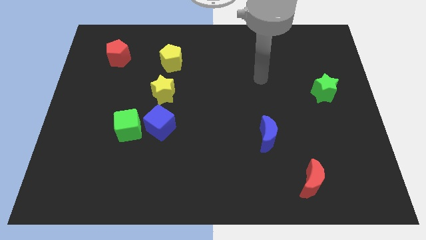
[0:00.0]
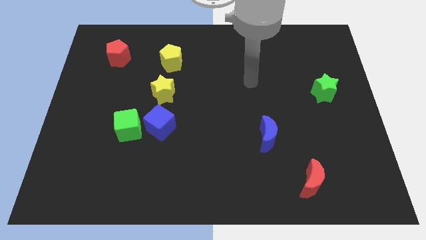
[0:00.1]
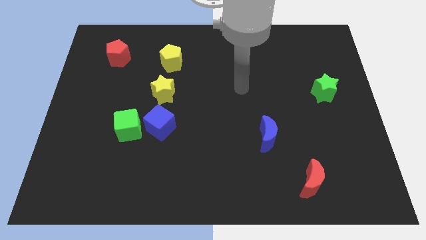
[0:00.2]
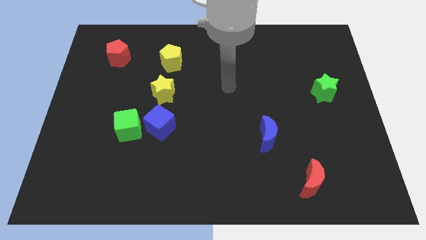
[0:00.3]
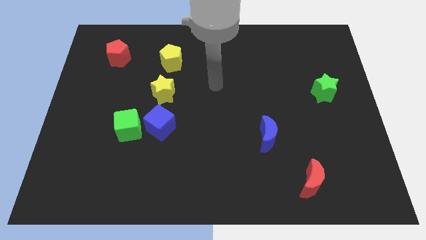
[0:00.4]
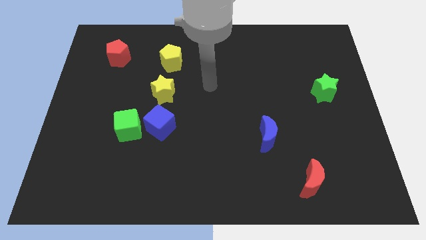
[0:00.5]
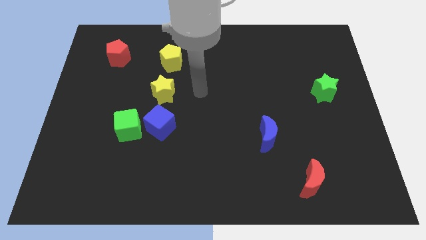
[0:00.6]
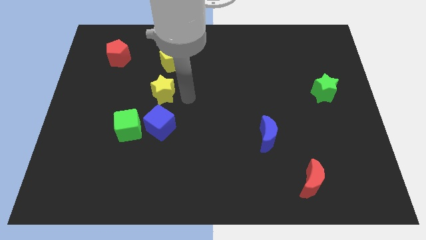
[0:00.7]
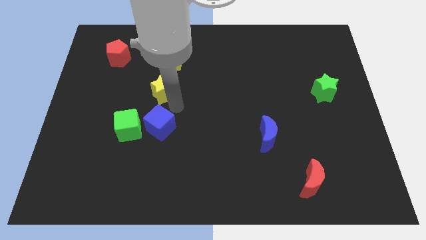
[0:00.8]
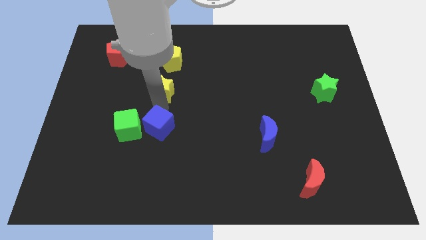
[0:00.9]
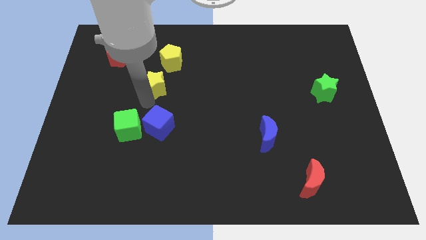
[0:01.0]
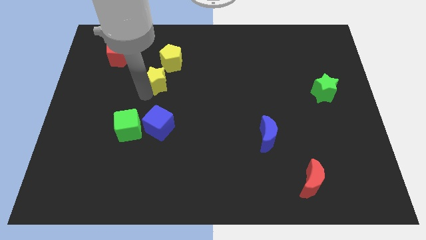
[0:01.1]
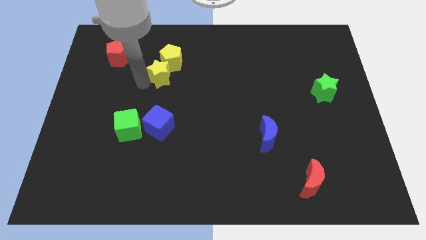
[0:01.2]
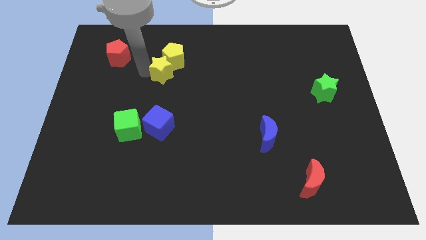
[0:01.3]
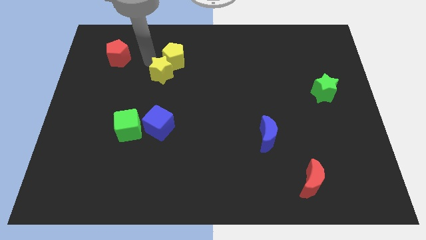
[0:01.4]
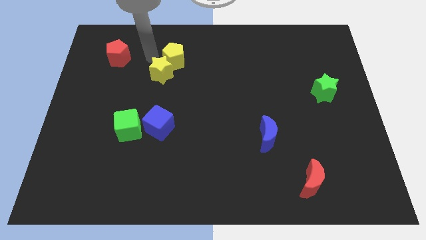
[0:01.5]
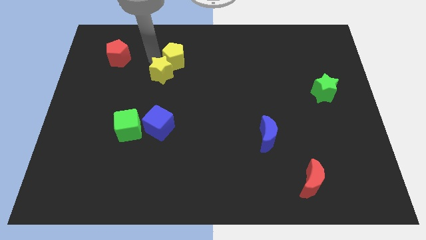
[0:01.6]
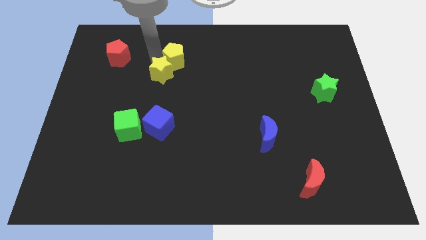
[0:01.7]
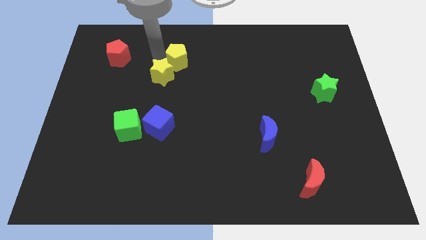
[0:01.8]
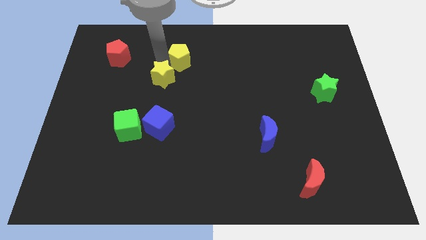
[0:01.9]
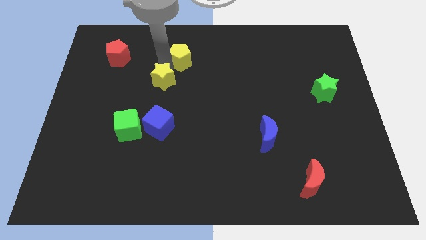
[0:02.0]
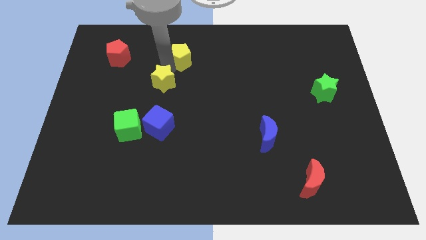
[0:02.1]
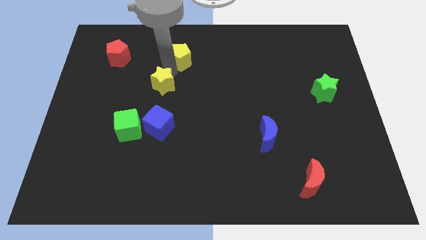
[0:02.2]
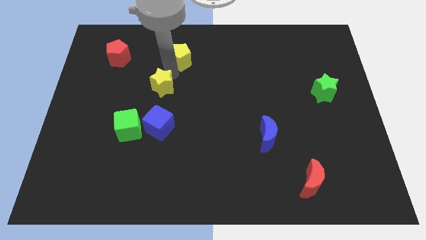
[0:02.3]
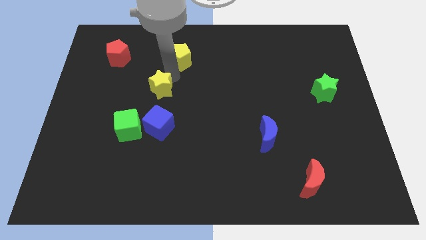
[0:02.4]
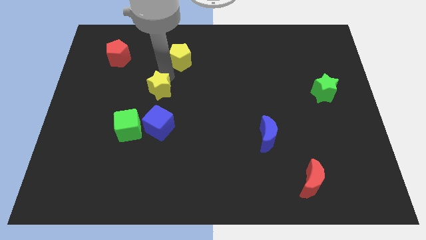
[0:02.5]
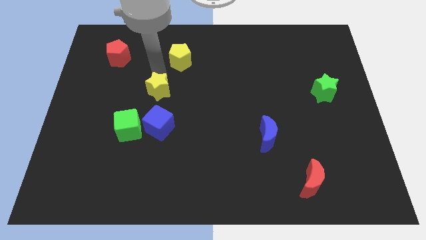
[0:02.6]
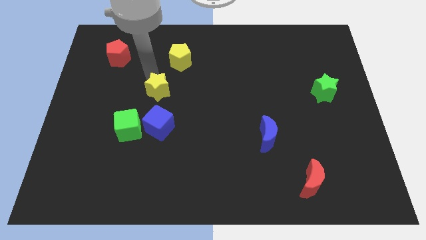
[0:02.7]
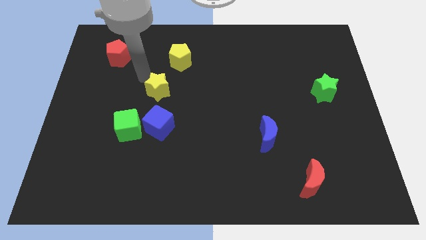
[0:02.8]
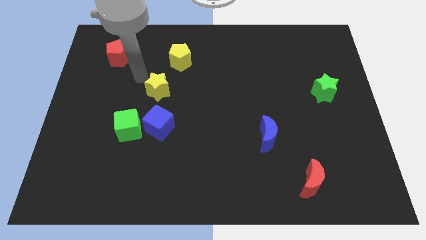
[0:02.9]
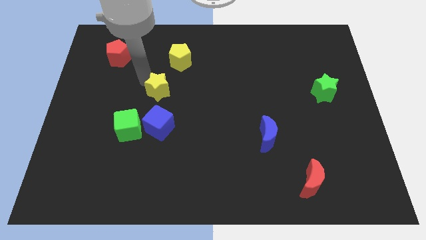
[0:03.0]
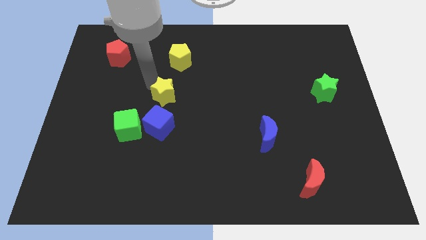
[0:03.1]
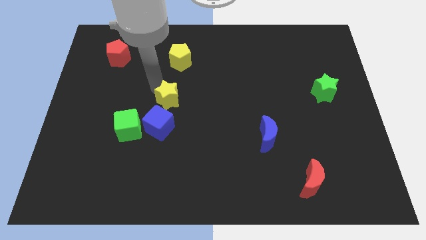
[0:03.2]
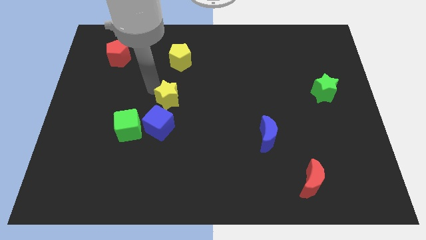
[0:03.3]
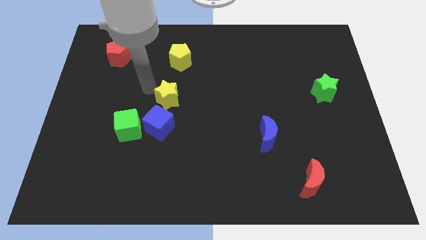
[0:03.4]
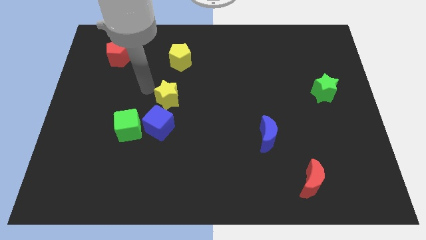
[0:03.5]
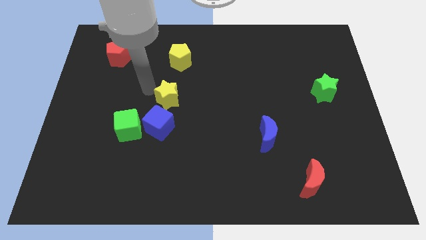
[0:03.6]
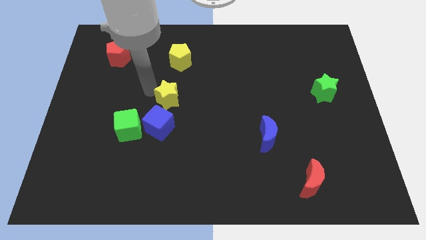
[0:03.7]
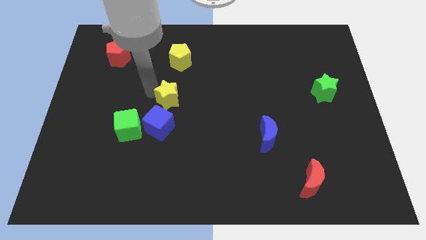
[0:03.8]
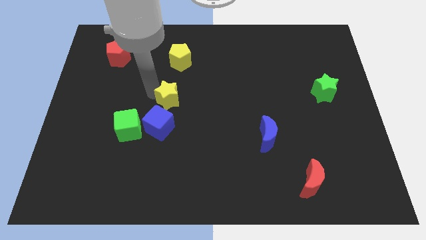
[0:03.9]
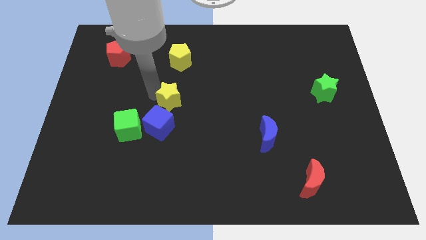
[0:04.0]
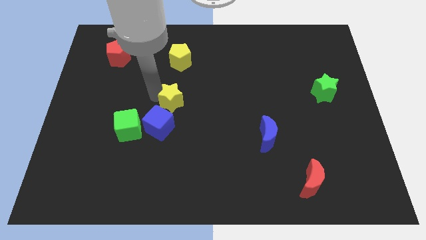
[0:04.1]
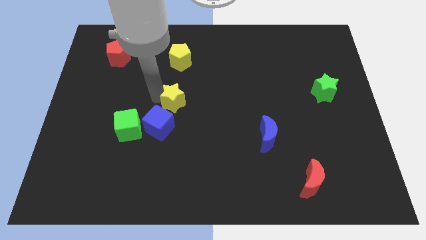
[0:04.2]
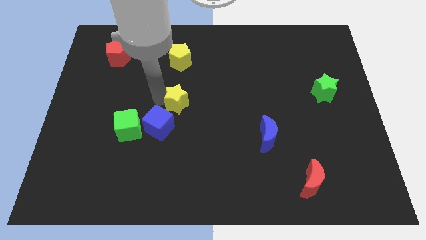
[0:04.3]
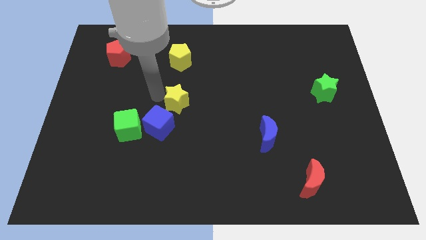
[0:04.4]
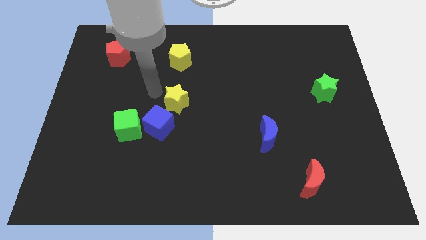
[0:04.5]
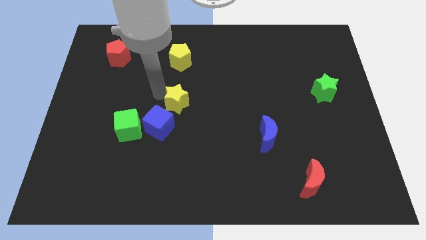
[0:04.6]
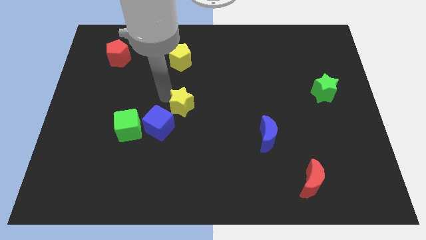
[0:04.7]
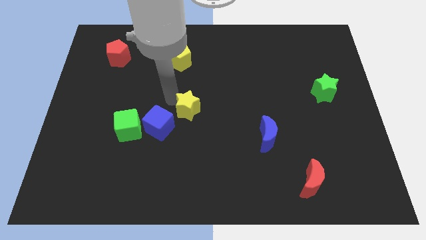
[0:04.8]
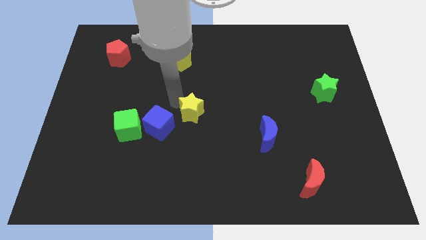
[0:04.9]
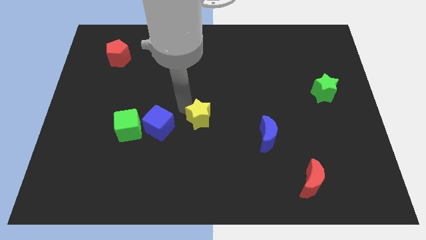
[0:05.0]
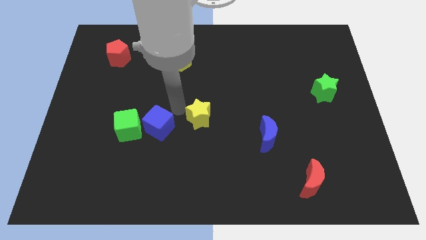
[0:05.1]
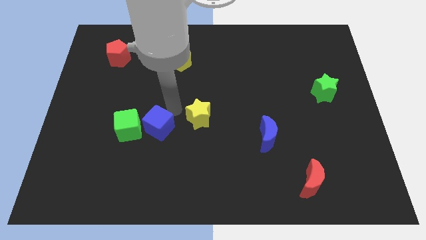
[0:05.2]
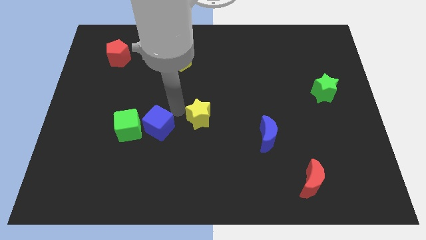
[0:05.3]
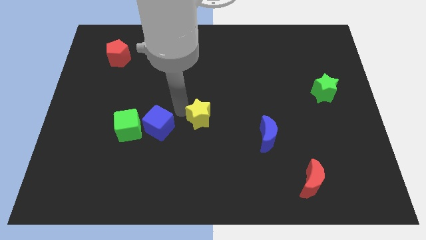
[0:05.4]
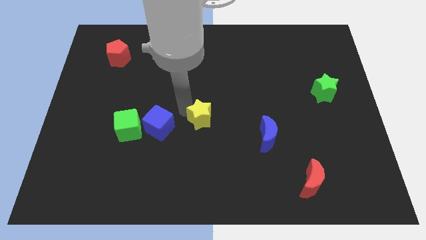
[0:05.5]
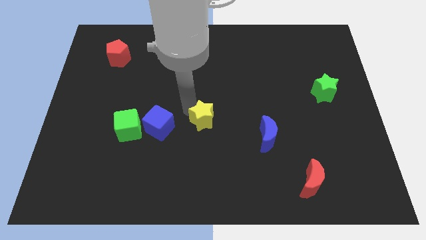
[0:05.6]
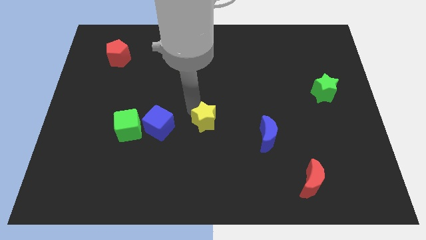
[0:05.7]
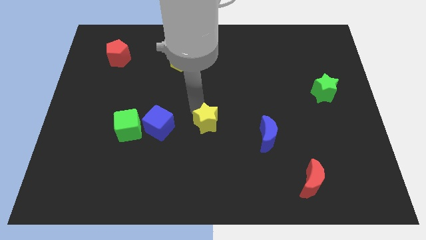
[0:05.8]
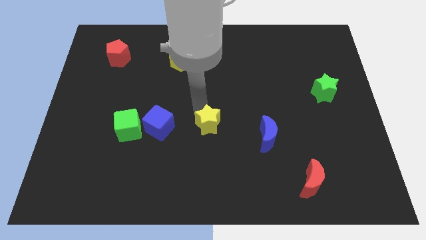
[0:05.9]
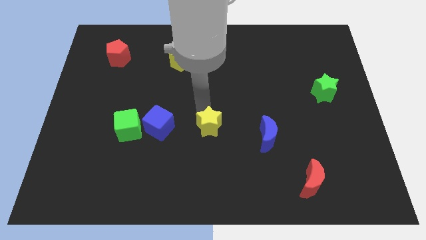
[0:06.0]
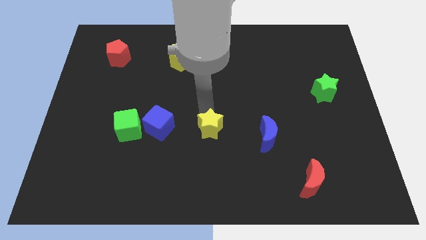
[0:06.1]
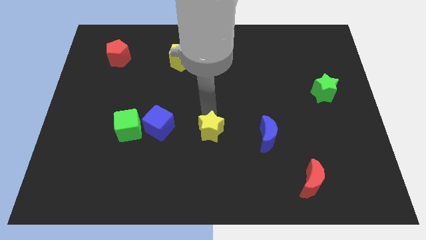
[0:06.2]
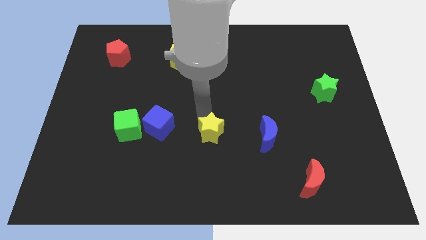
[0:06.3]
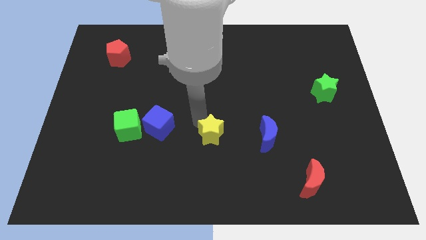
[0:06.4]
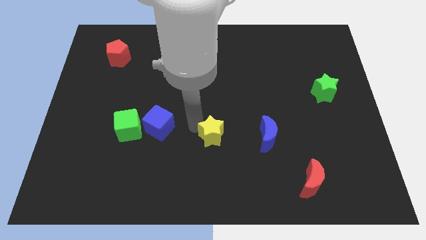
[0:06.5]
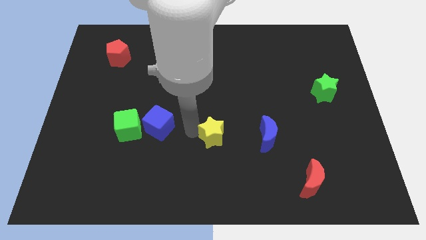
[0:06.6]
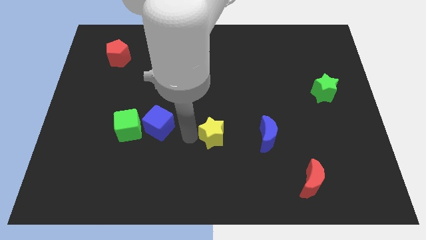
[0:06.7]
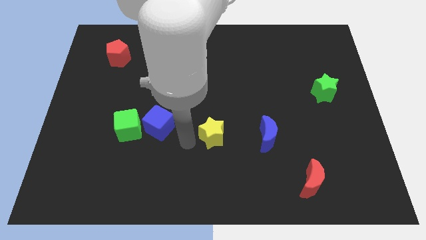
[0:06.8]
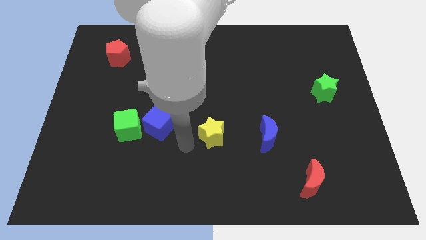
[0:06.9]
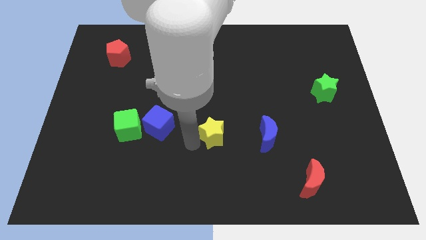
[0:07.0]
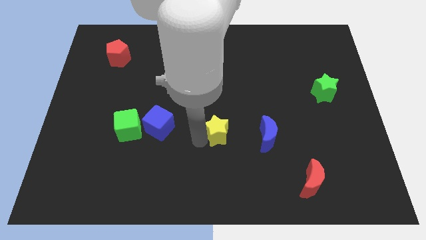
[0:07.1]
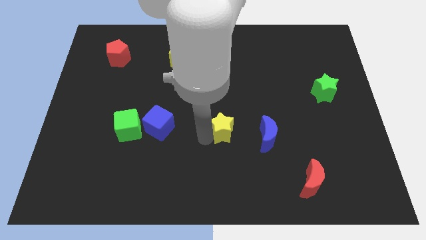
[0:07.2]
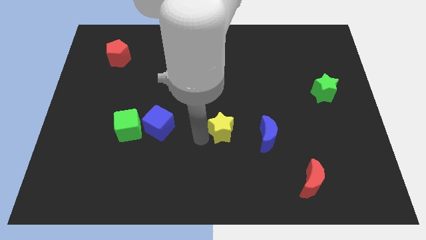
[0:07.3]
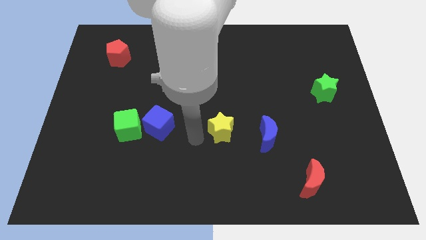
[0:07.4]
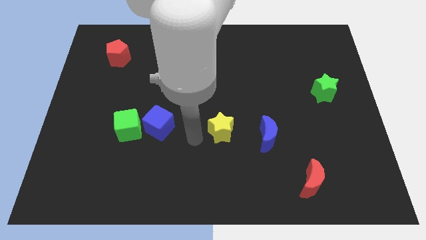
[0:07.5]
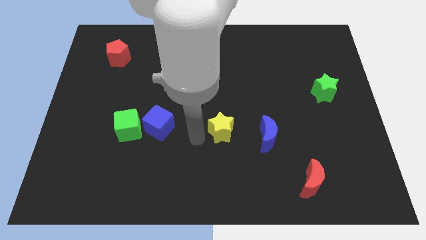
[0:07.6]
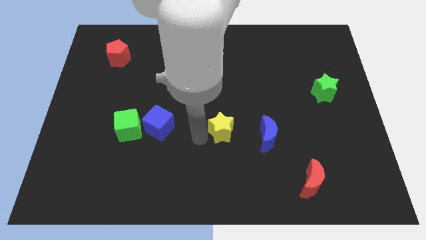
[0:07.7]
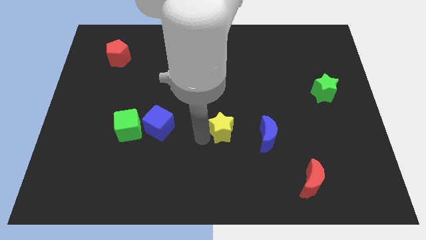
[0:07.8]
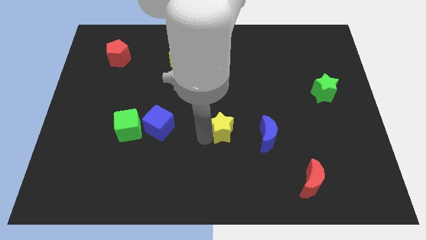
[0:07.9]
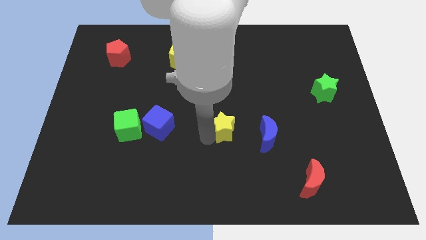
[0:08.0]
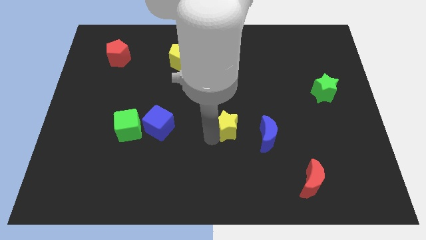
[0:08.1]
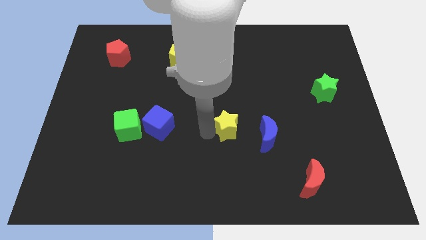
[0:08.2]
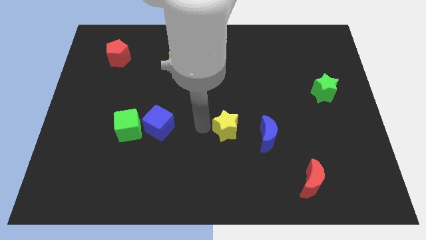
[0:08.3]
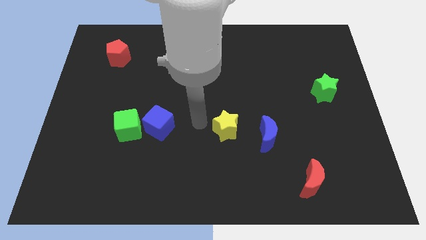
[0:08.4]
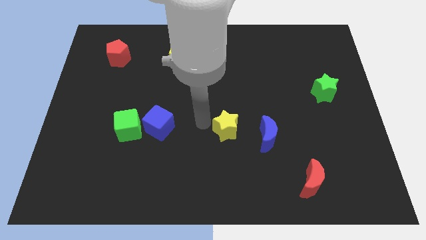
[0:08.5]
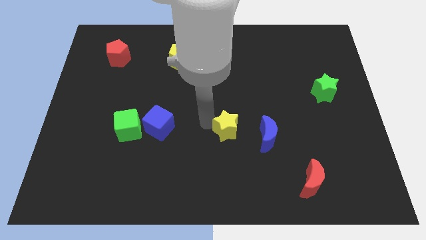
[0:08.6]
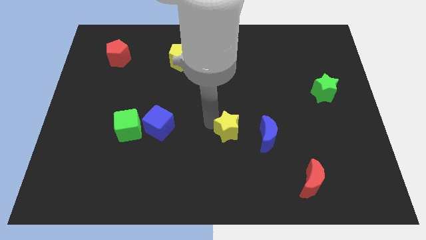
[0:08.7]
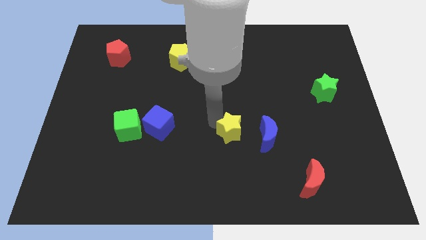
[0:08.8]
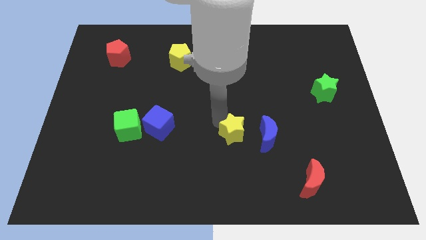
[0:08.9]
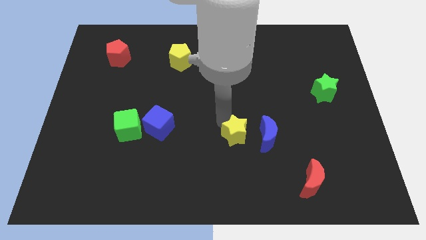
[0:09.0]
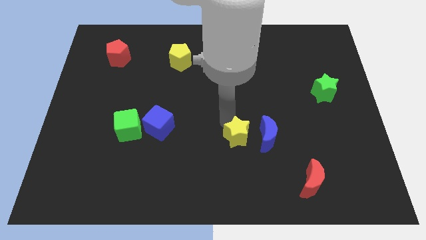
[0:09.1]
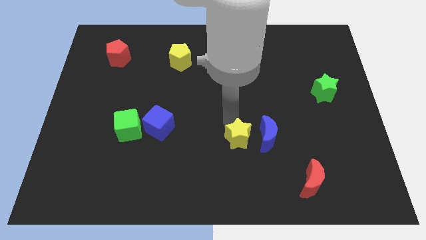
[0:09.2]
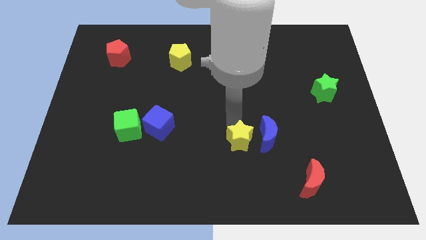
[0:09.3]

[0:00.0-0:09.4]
push the yellow star to the blue moon
